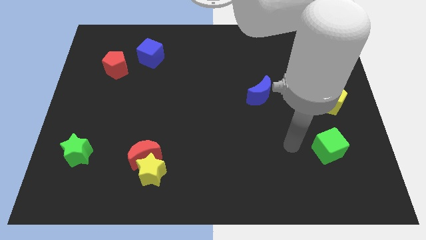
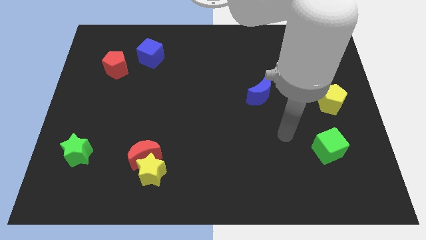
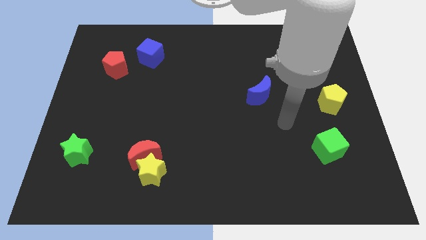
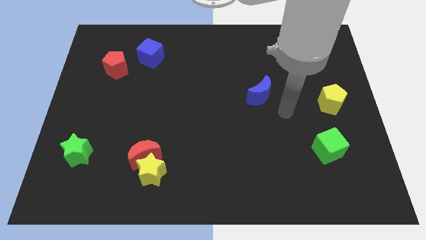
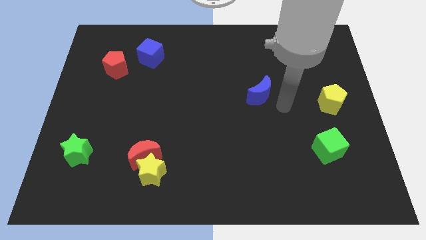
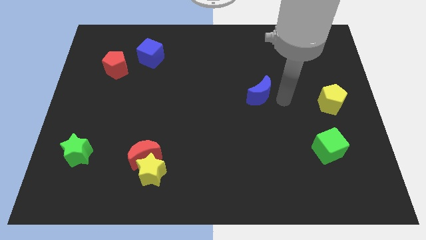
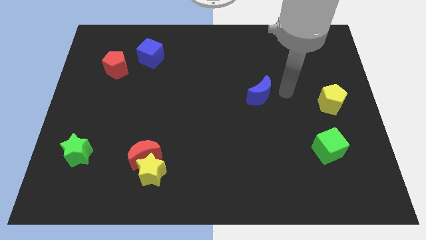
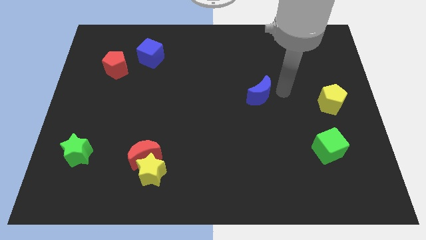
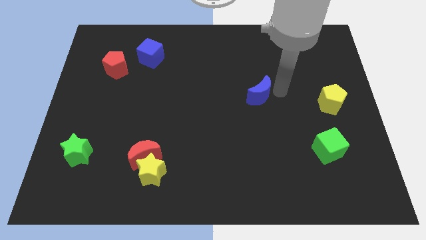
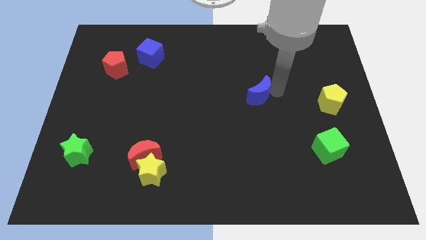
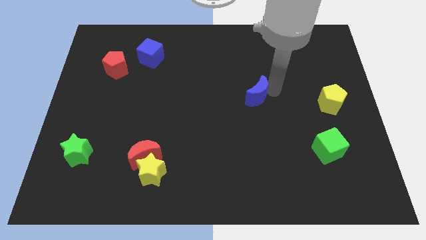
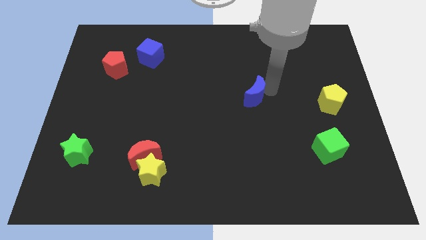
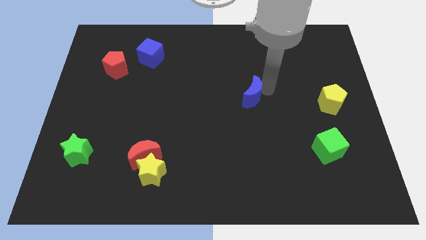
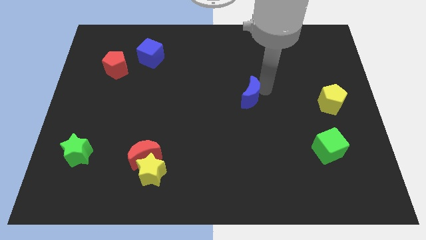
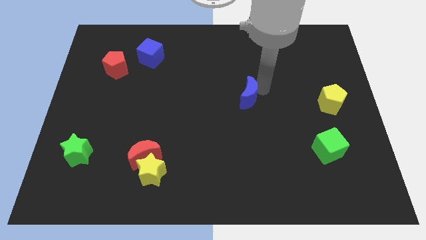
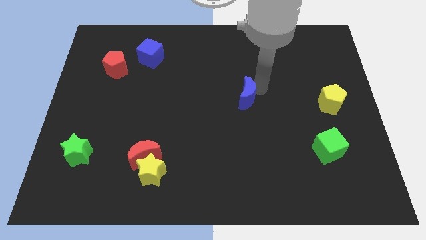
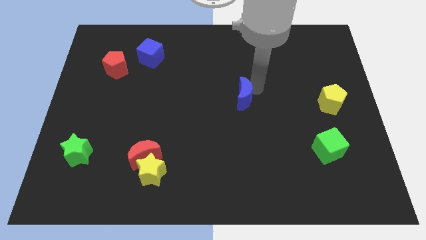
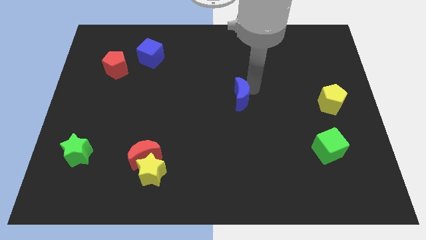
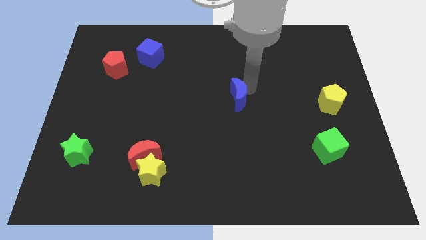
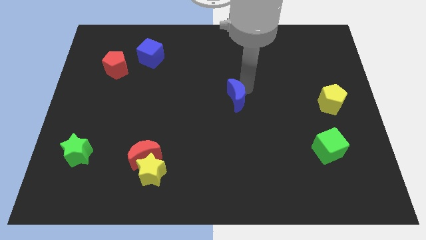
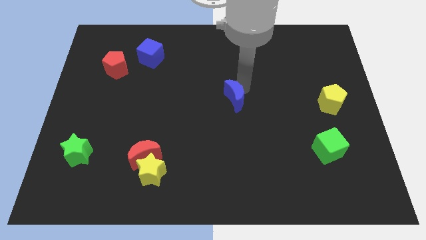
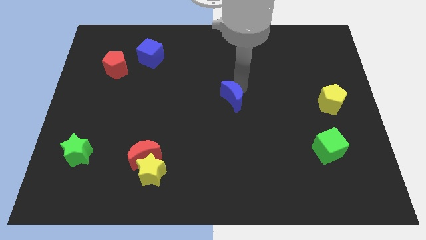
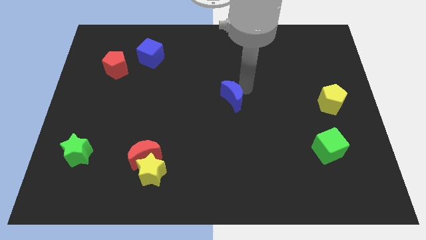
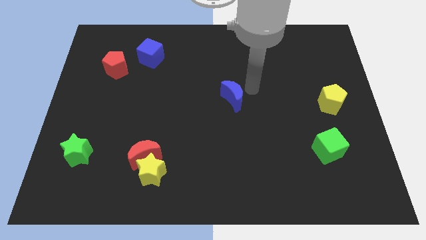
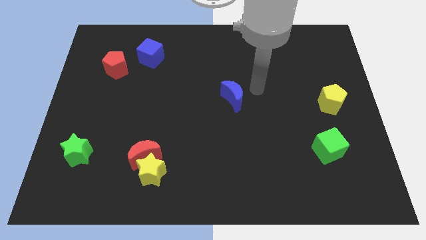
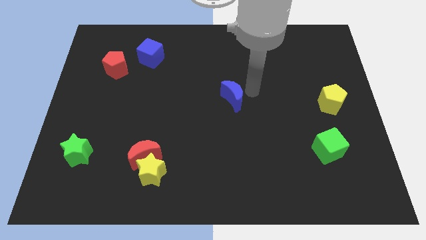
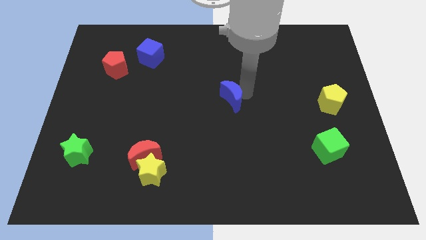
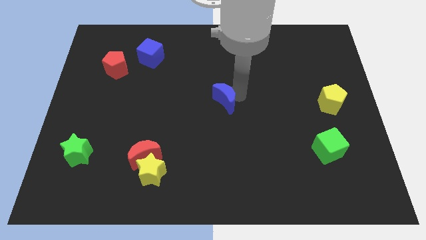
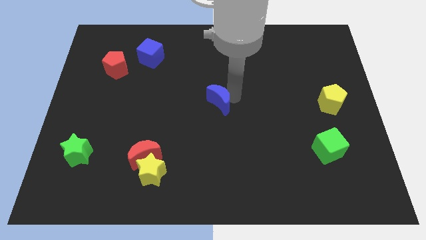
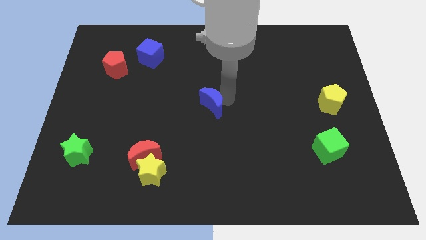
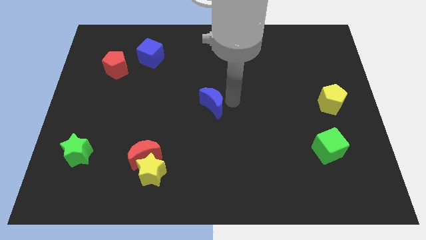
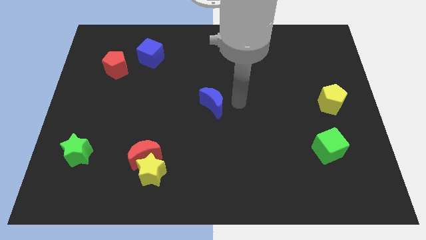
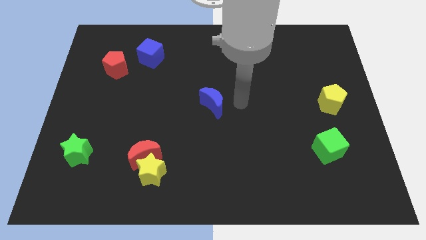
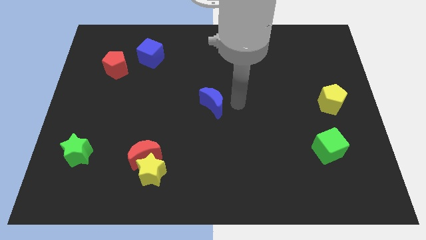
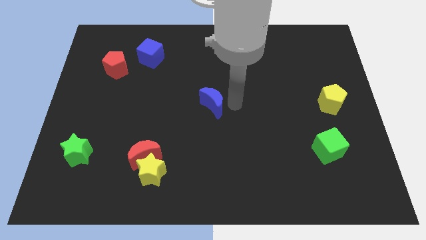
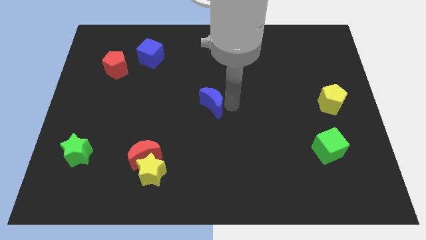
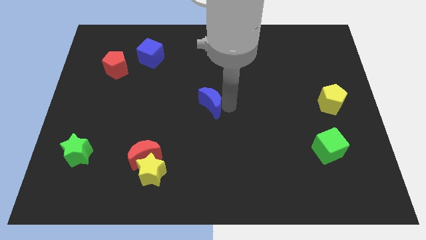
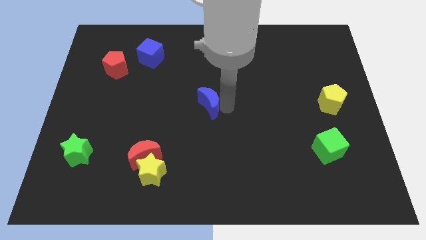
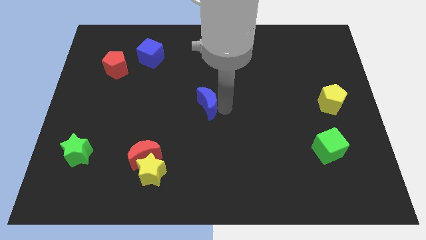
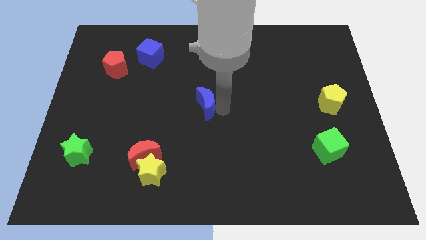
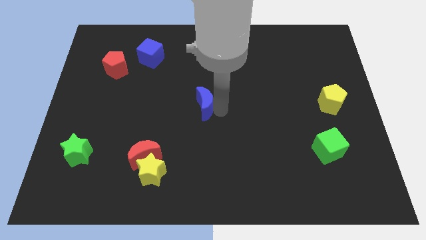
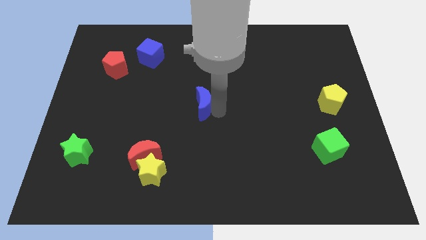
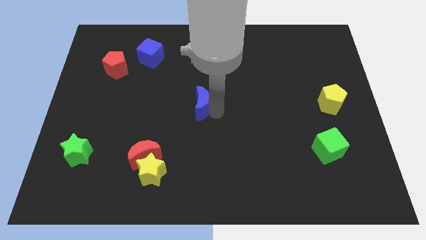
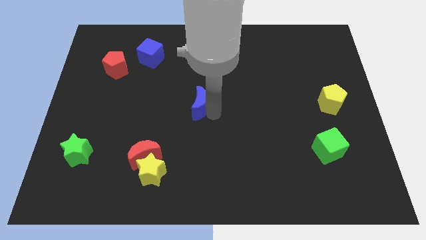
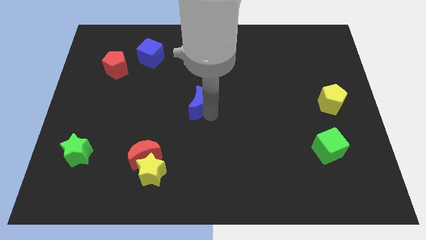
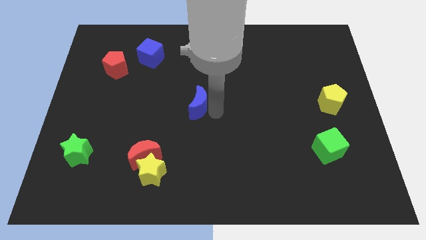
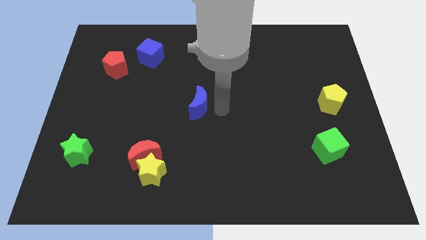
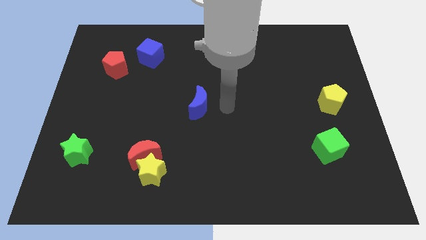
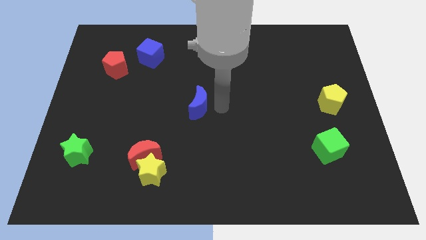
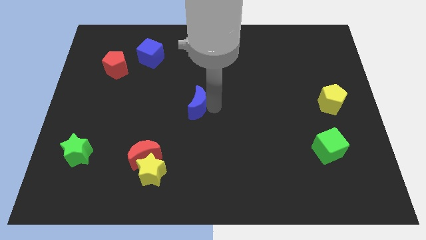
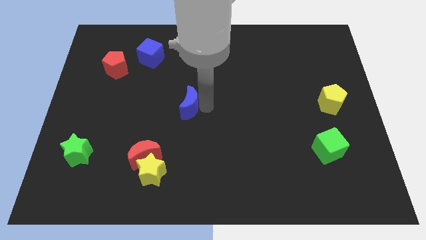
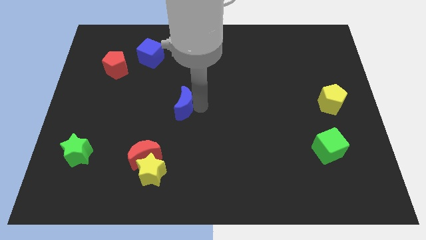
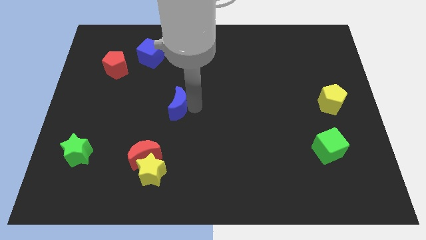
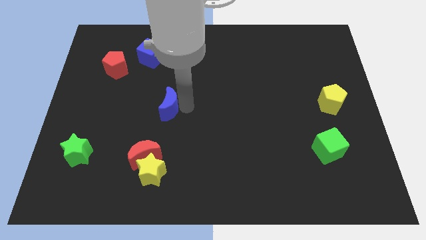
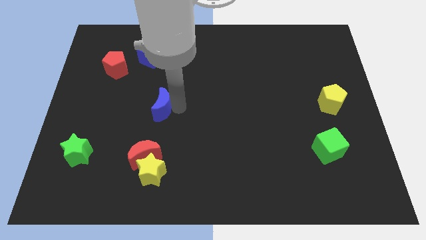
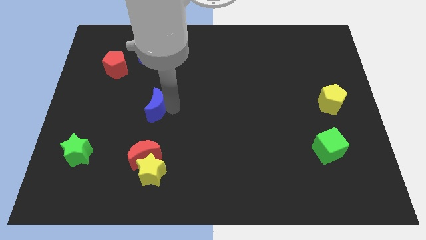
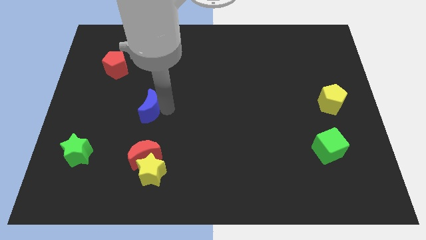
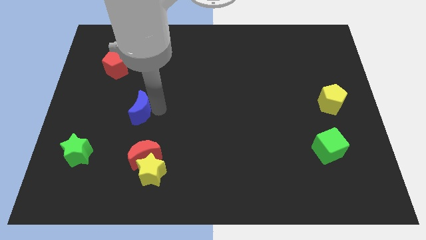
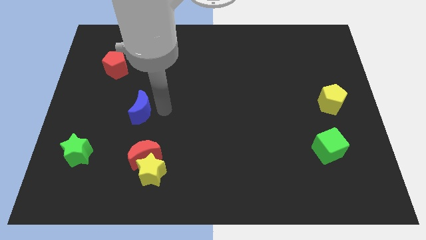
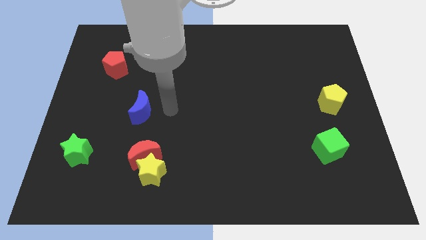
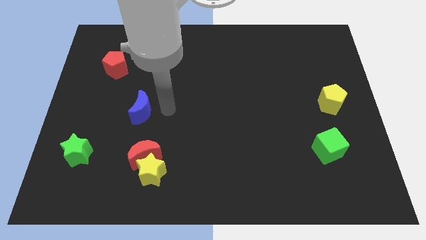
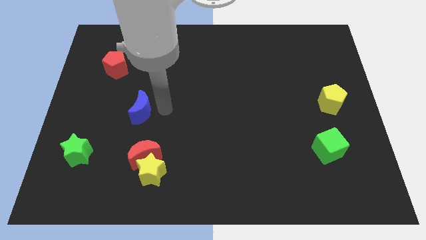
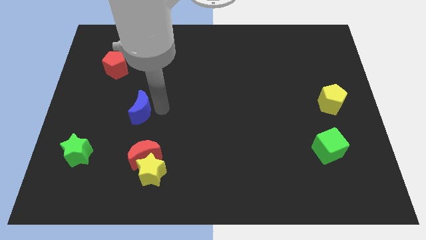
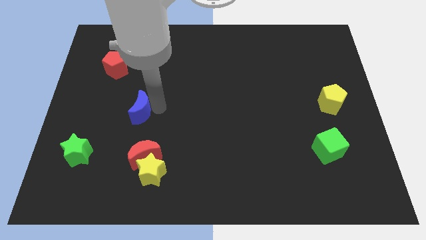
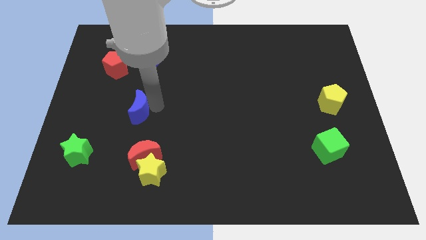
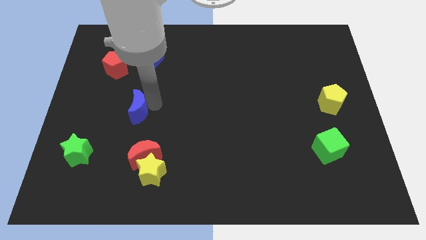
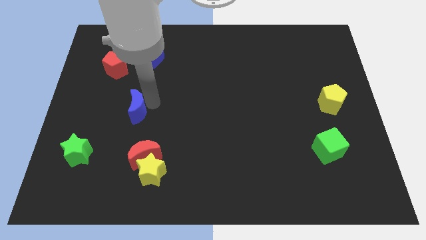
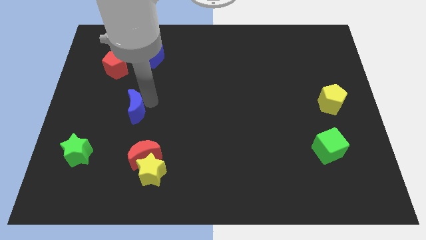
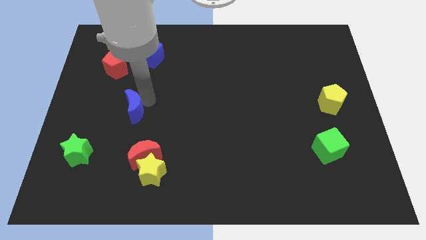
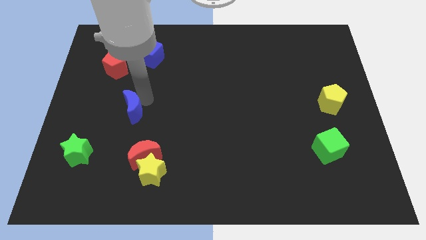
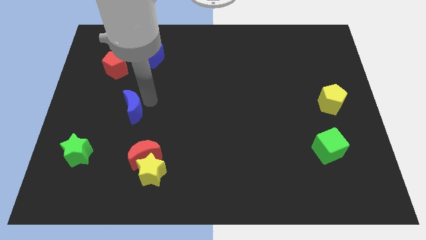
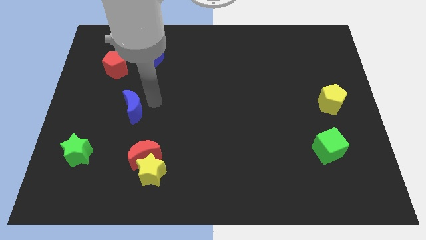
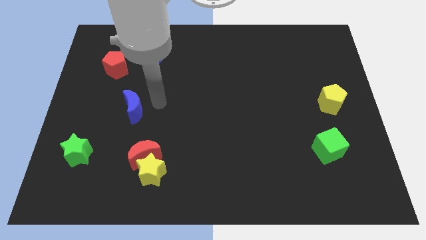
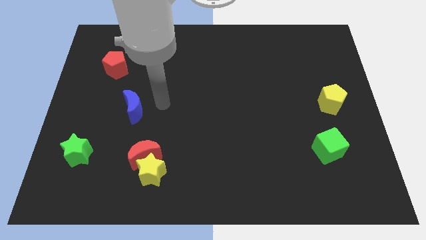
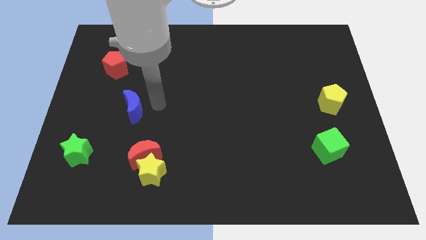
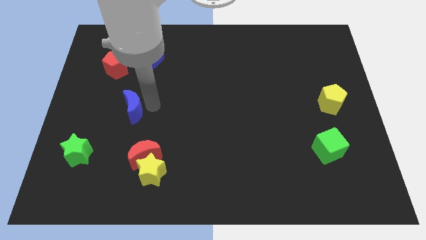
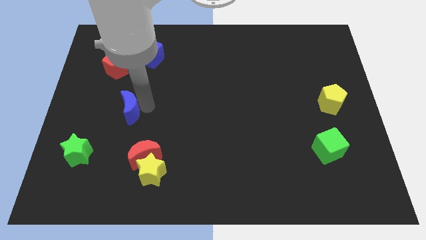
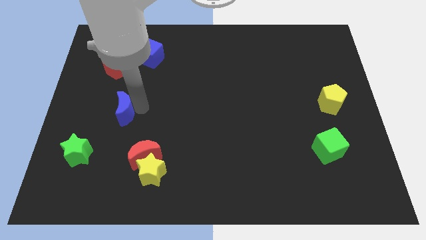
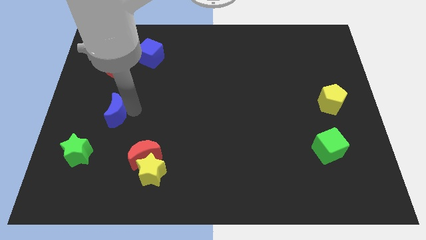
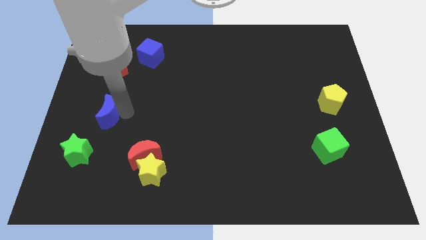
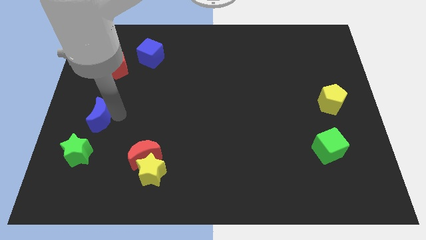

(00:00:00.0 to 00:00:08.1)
slide the blue moon to the top side of the green star
